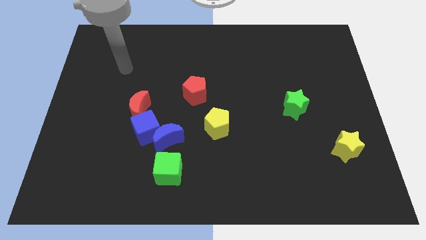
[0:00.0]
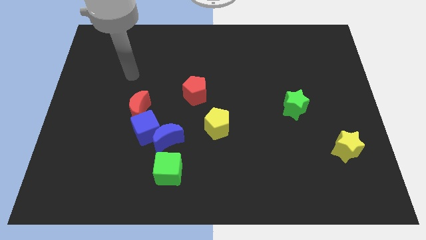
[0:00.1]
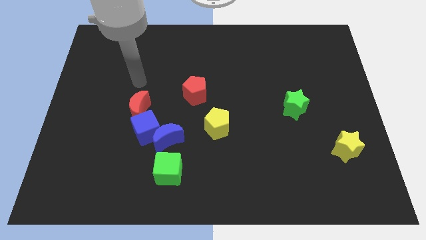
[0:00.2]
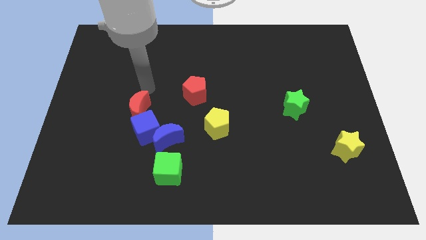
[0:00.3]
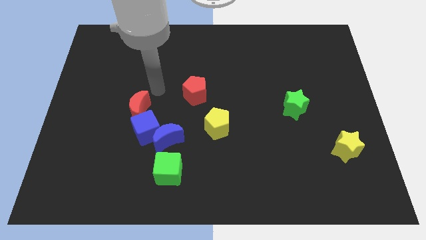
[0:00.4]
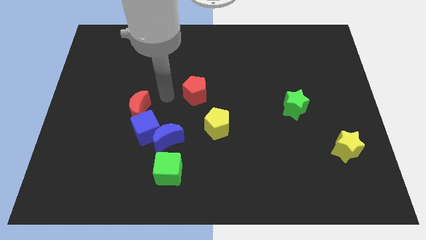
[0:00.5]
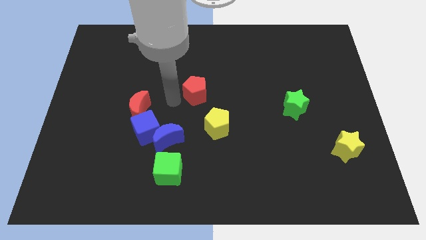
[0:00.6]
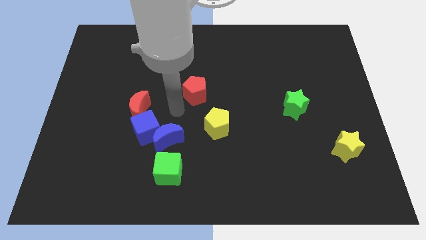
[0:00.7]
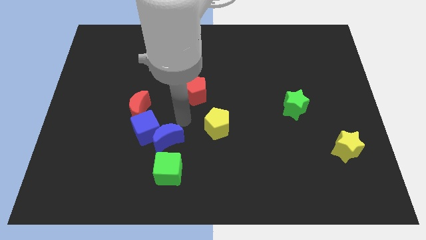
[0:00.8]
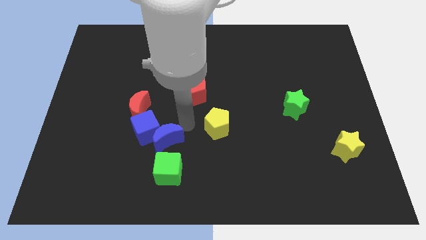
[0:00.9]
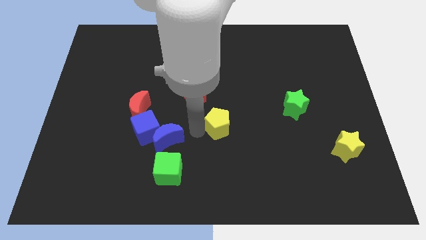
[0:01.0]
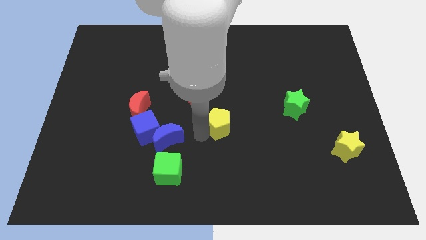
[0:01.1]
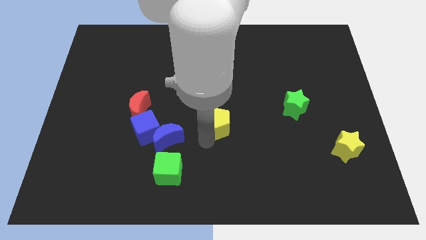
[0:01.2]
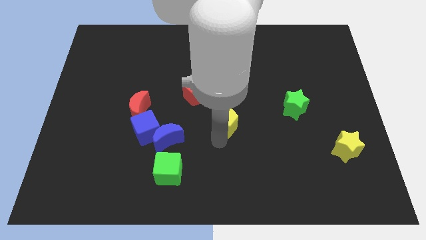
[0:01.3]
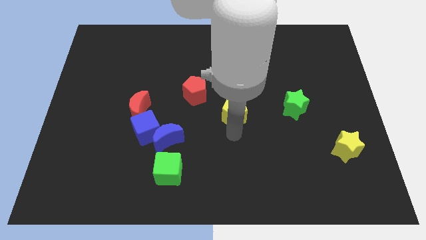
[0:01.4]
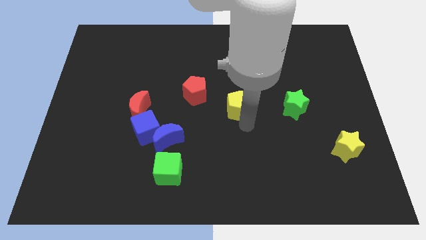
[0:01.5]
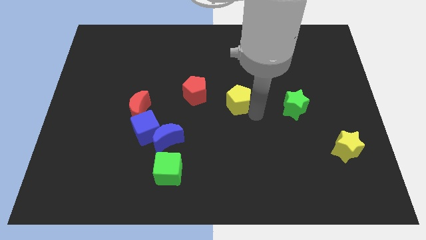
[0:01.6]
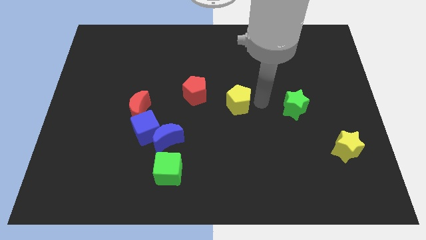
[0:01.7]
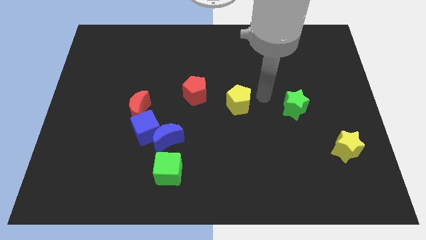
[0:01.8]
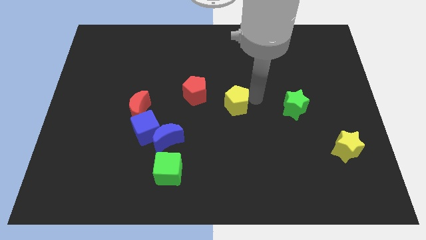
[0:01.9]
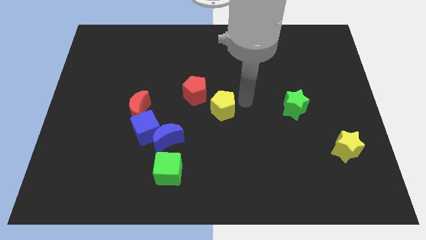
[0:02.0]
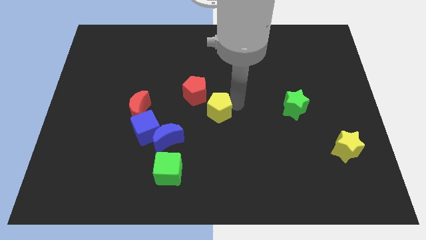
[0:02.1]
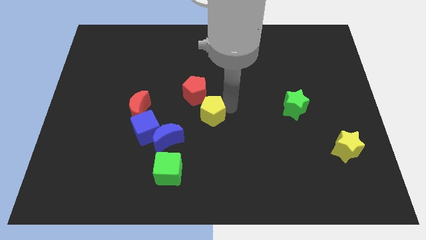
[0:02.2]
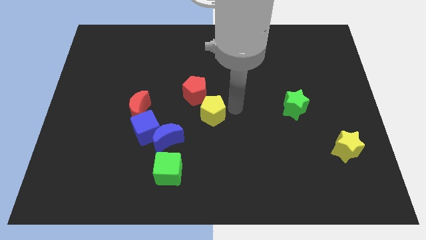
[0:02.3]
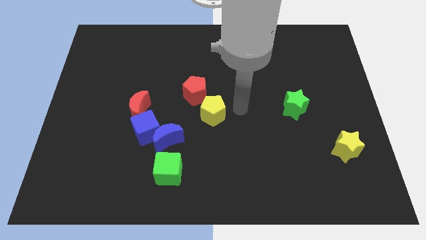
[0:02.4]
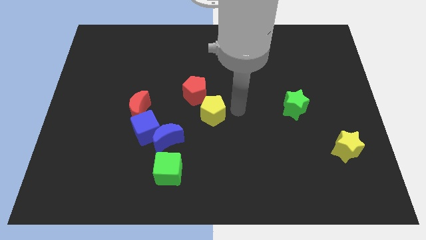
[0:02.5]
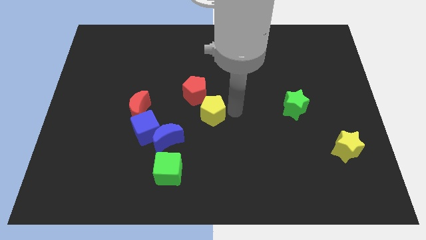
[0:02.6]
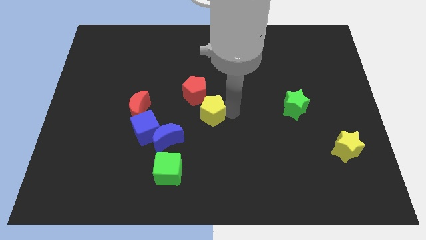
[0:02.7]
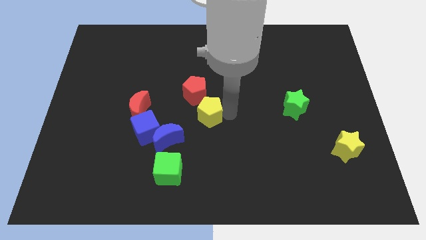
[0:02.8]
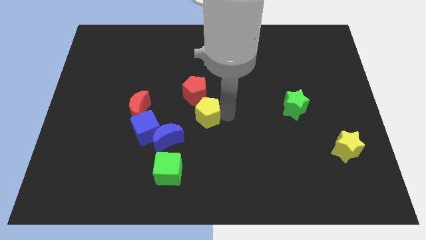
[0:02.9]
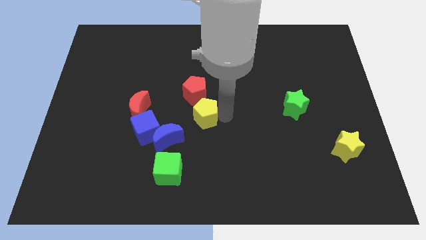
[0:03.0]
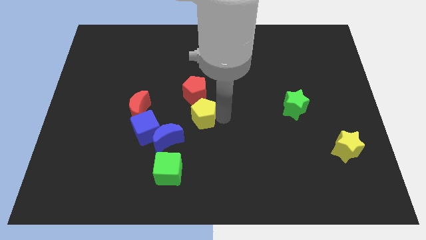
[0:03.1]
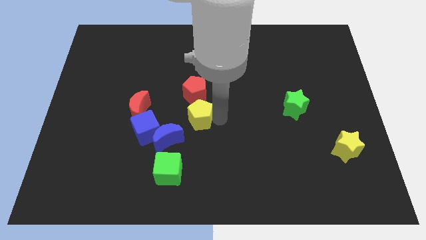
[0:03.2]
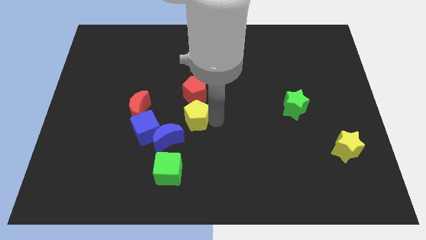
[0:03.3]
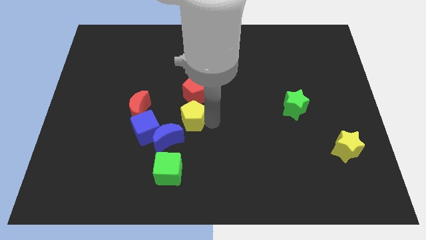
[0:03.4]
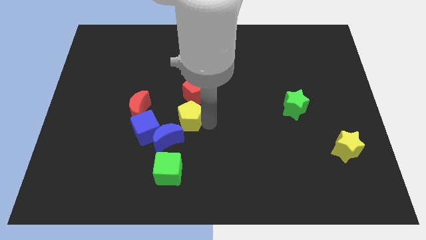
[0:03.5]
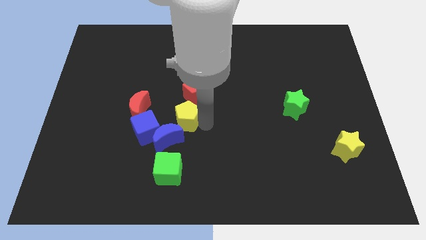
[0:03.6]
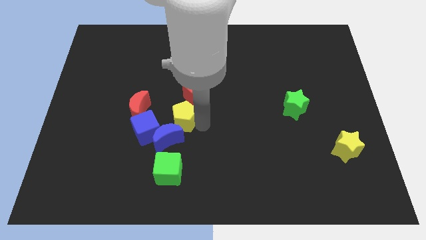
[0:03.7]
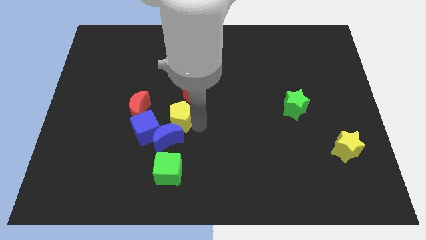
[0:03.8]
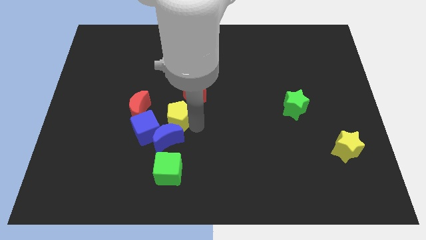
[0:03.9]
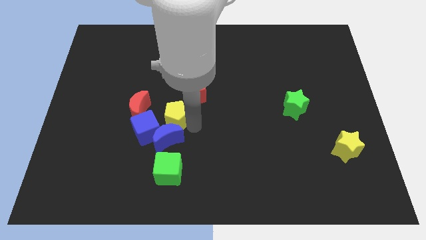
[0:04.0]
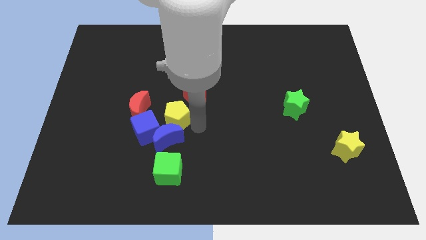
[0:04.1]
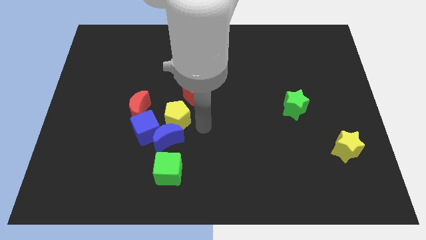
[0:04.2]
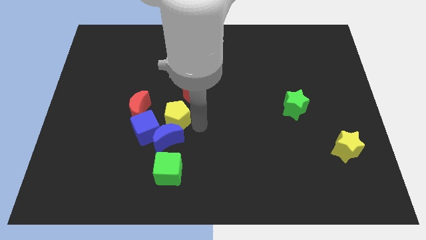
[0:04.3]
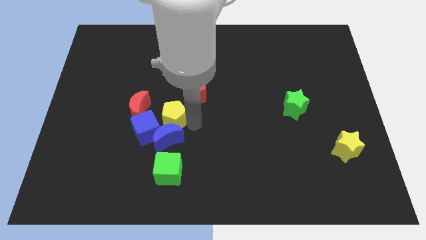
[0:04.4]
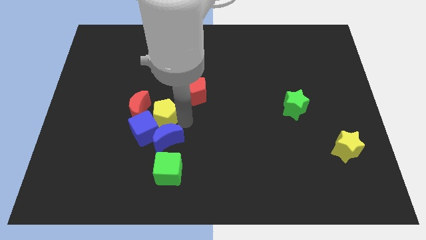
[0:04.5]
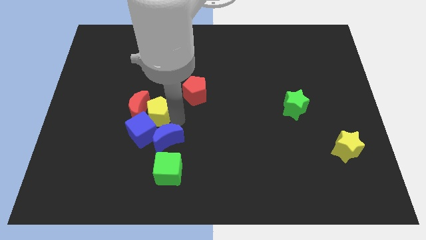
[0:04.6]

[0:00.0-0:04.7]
move the yellow pentagon next to the red moon

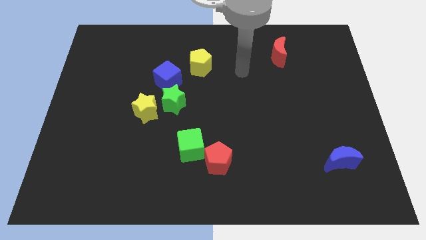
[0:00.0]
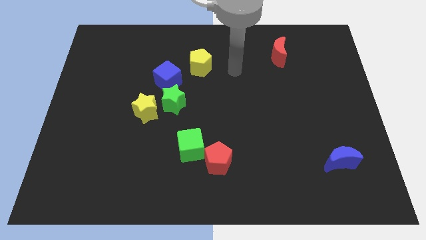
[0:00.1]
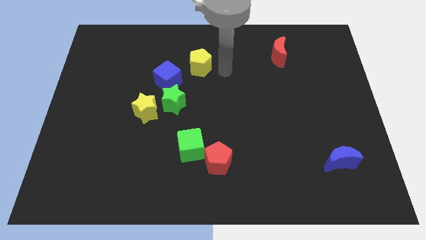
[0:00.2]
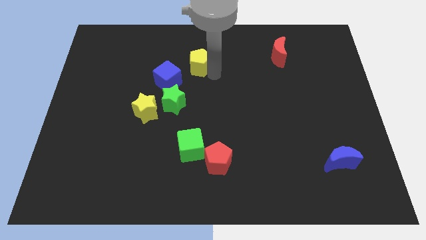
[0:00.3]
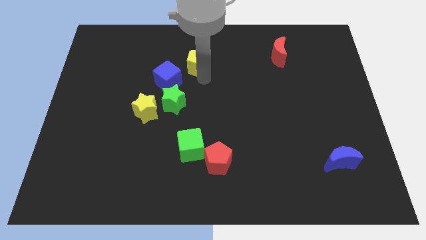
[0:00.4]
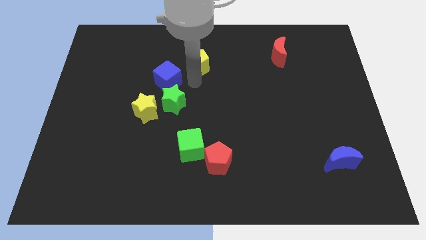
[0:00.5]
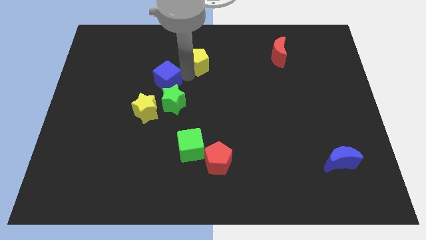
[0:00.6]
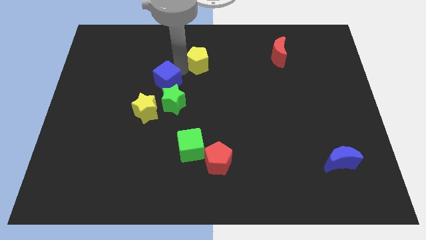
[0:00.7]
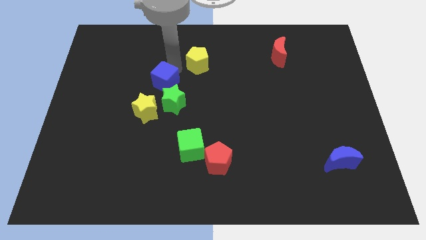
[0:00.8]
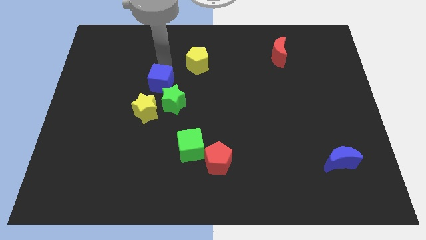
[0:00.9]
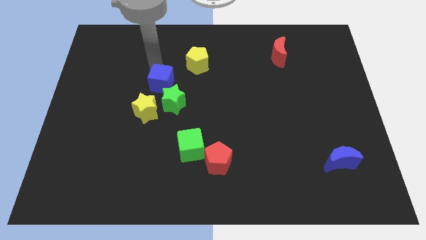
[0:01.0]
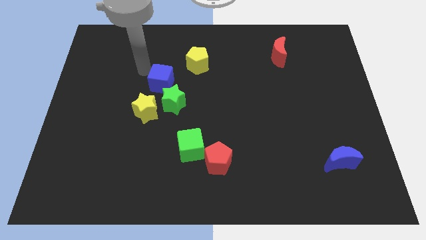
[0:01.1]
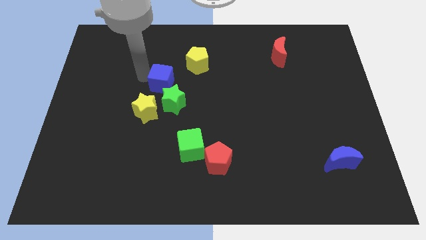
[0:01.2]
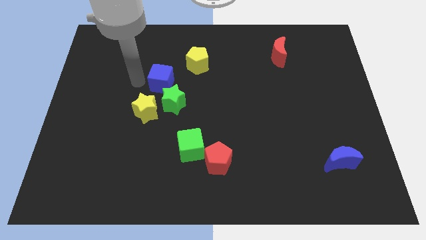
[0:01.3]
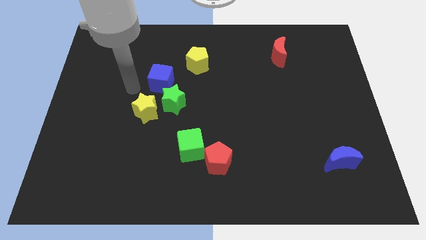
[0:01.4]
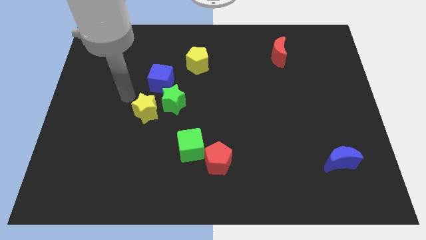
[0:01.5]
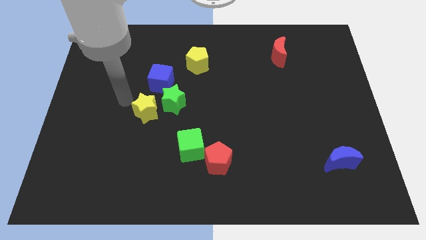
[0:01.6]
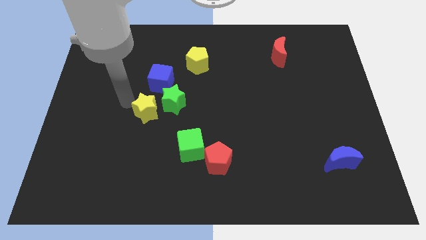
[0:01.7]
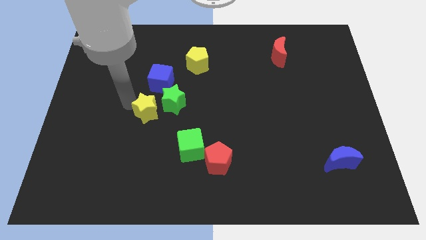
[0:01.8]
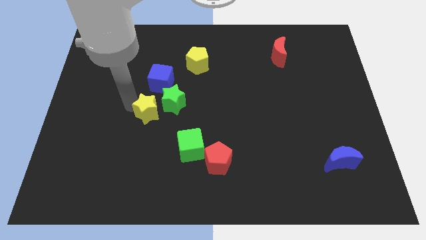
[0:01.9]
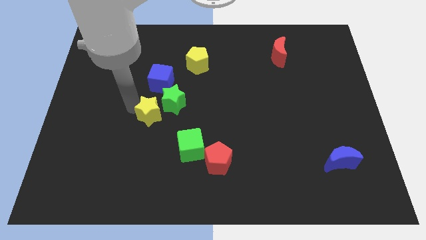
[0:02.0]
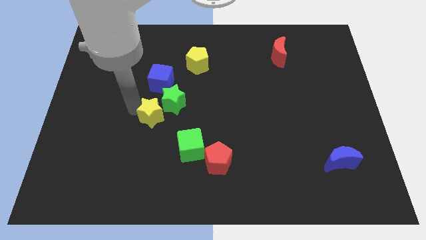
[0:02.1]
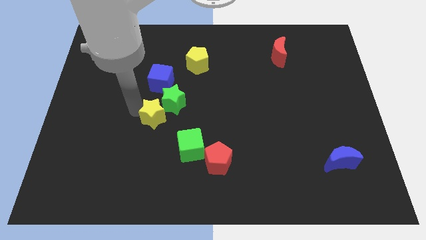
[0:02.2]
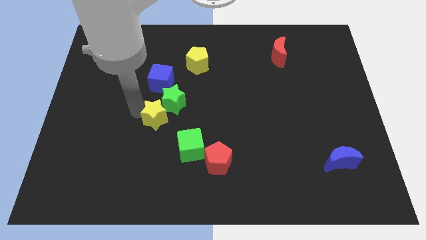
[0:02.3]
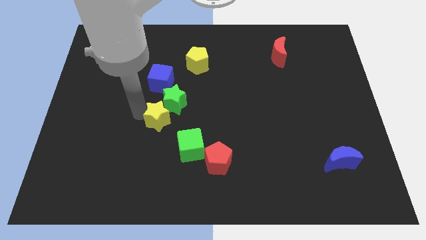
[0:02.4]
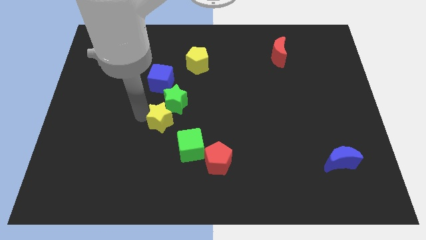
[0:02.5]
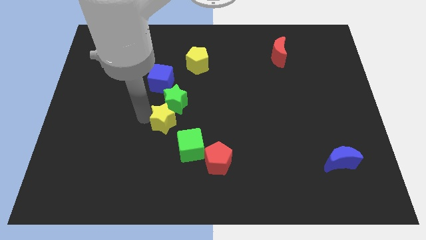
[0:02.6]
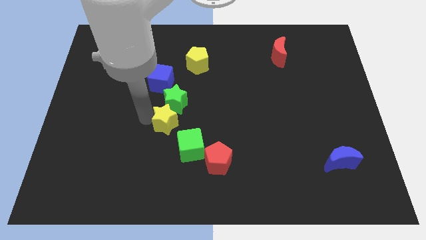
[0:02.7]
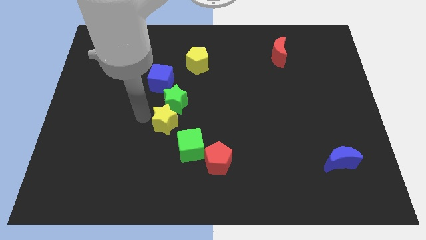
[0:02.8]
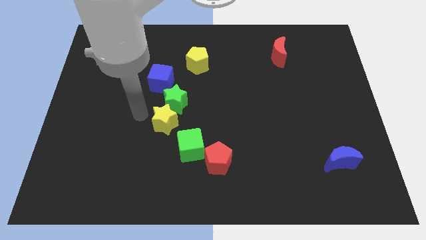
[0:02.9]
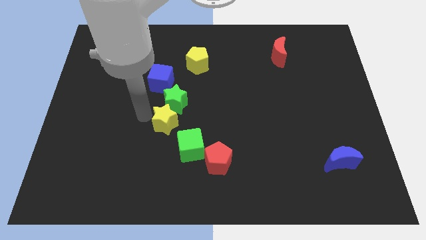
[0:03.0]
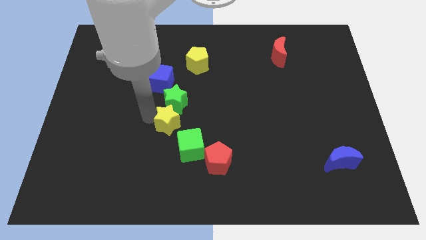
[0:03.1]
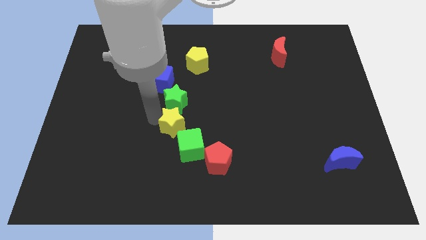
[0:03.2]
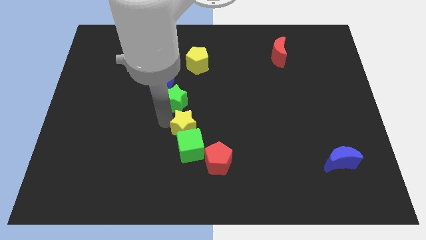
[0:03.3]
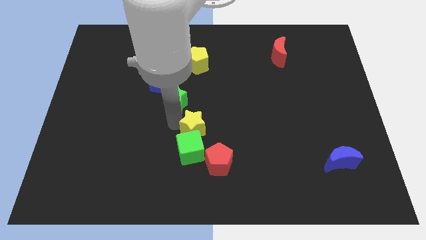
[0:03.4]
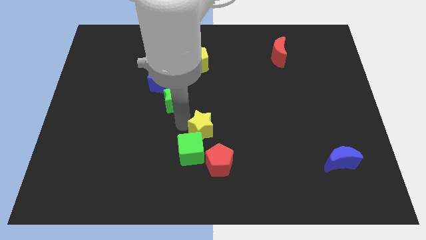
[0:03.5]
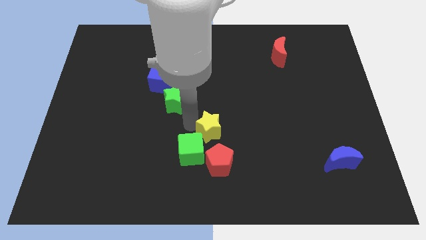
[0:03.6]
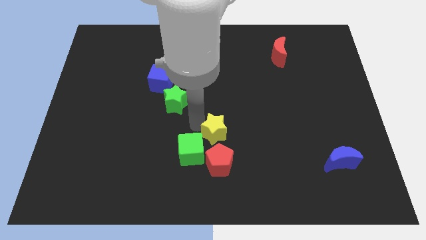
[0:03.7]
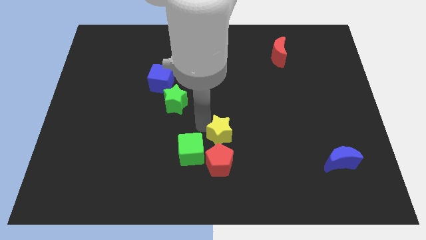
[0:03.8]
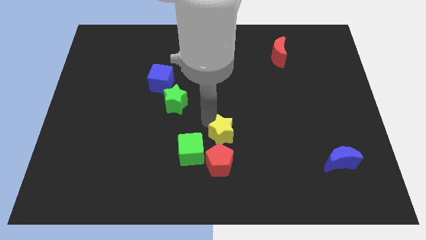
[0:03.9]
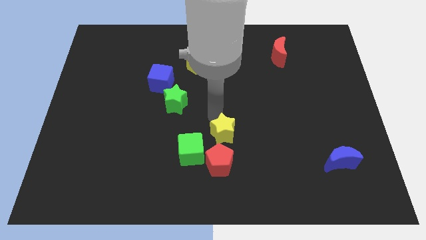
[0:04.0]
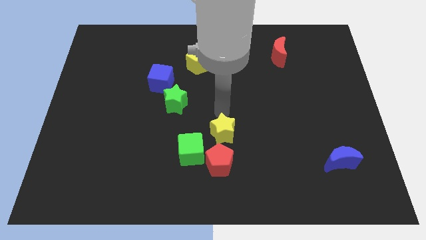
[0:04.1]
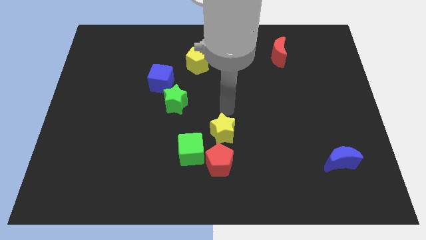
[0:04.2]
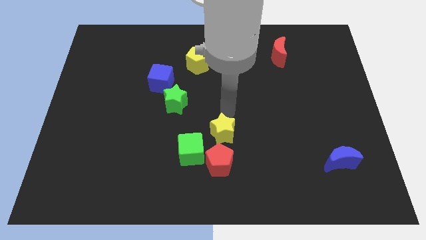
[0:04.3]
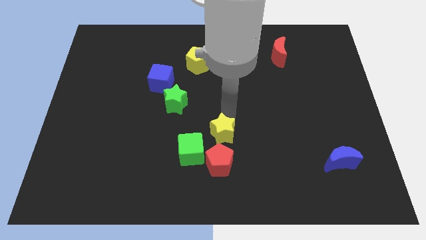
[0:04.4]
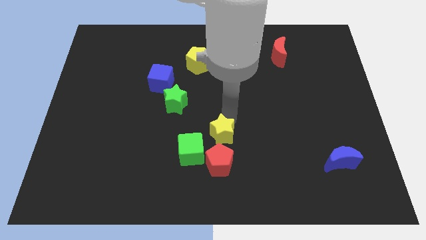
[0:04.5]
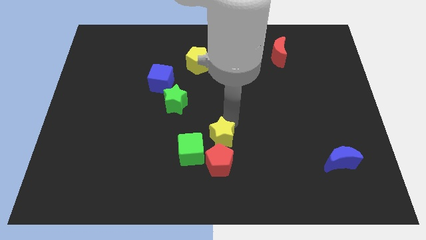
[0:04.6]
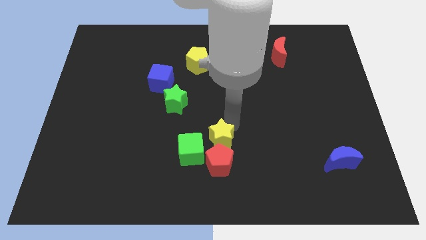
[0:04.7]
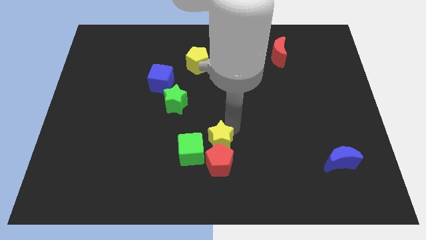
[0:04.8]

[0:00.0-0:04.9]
put the yellow star close to the red pentagon
